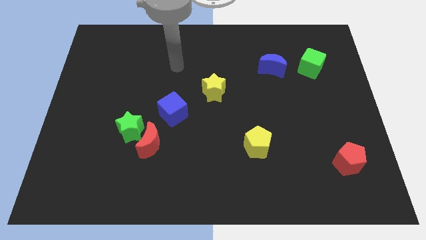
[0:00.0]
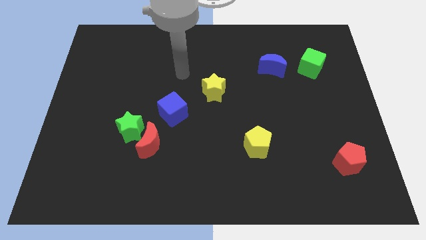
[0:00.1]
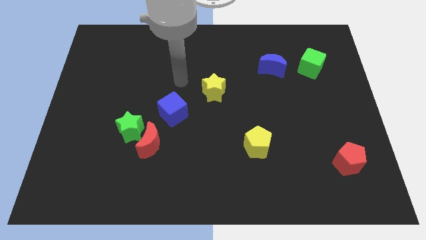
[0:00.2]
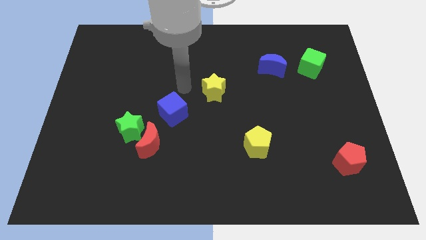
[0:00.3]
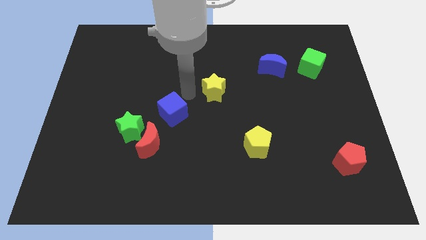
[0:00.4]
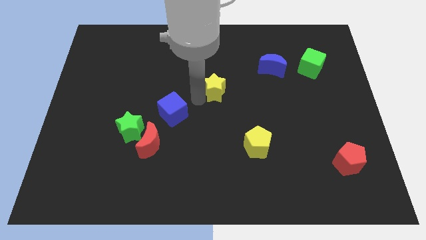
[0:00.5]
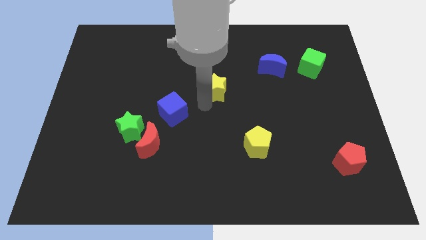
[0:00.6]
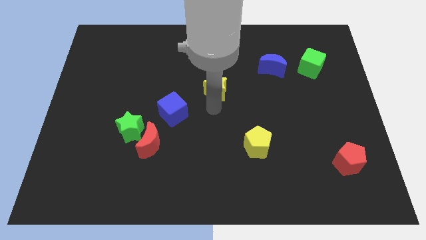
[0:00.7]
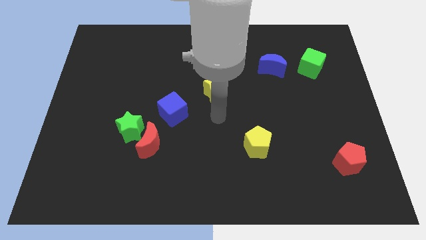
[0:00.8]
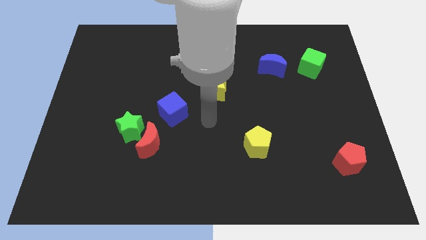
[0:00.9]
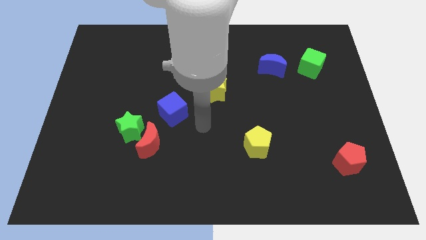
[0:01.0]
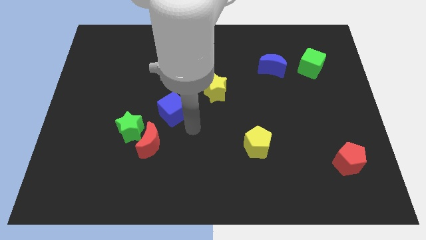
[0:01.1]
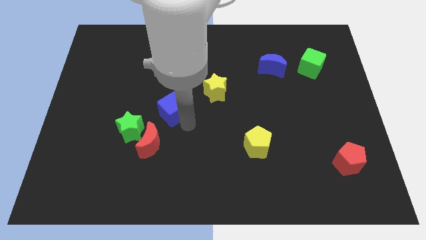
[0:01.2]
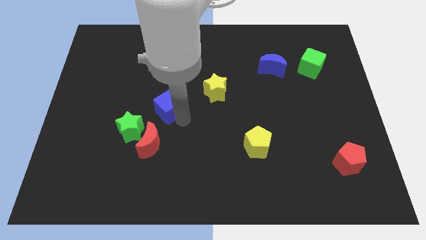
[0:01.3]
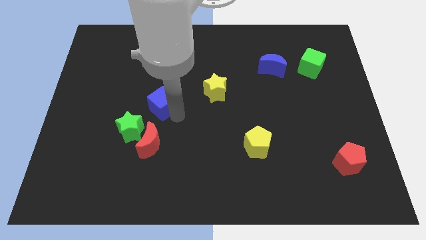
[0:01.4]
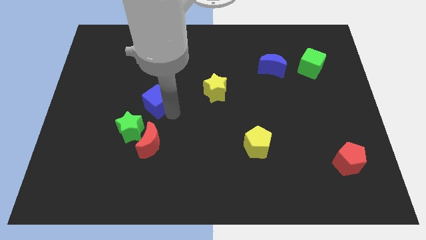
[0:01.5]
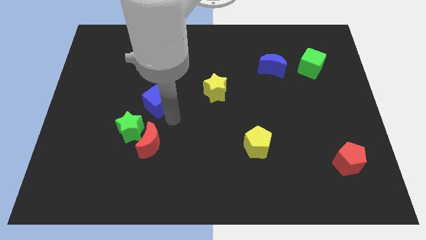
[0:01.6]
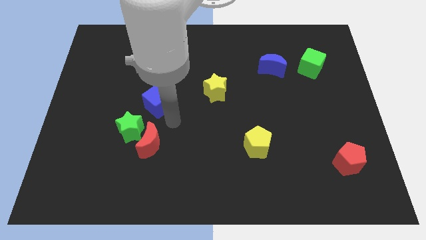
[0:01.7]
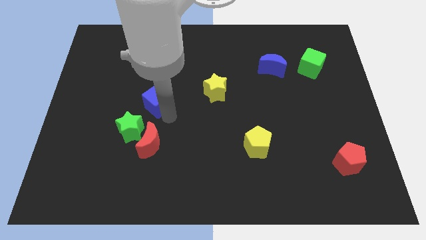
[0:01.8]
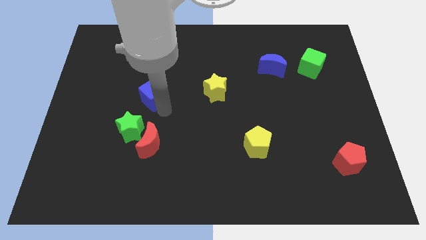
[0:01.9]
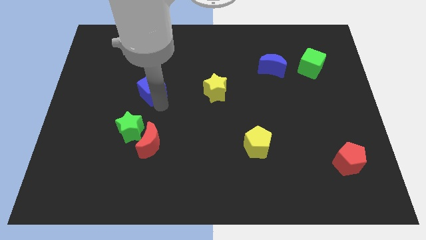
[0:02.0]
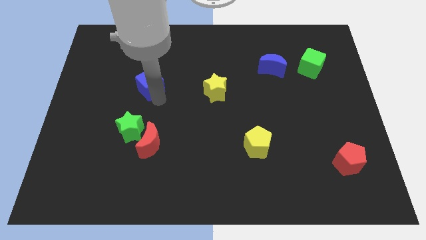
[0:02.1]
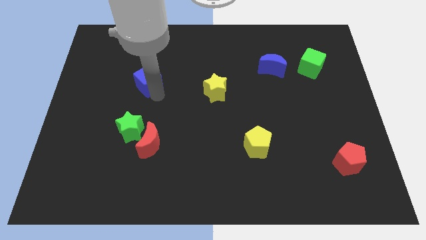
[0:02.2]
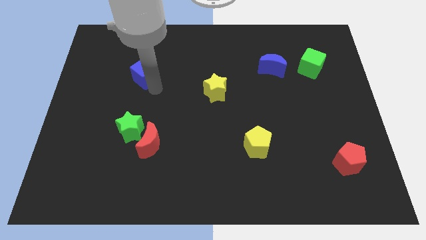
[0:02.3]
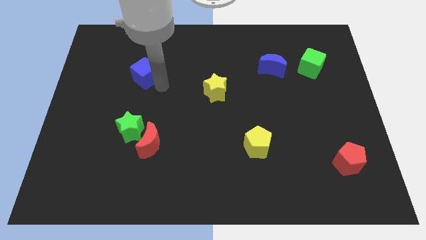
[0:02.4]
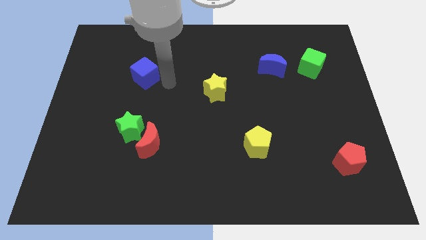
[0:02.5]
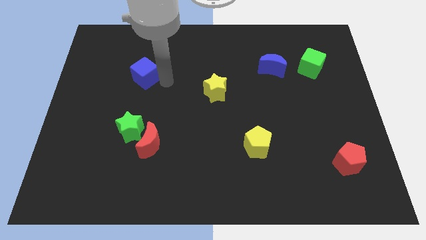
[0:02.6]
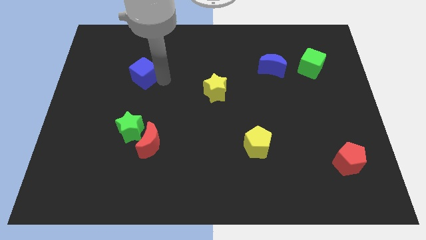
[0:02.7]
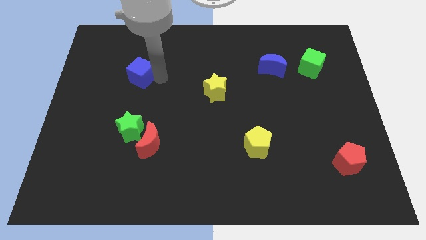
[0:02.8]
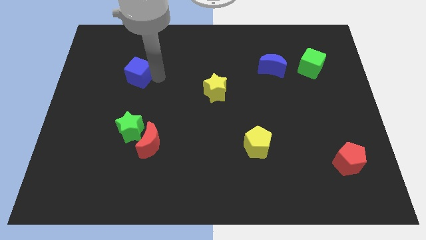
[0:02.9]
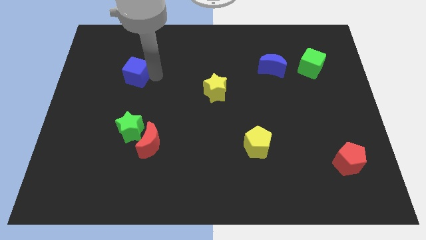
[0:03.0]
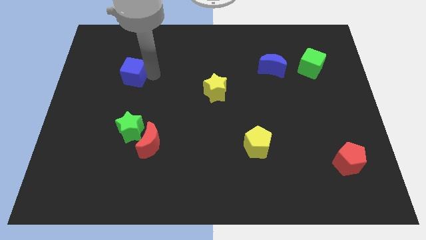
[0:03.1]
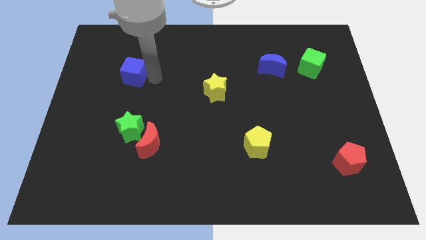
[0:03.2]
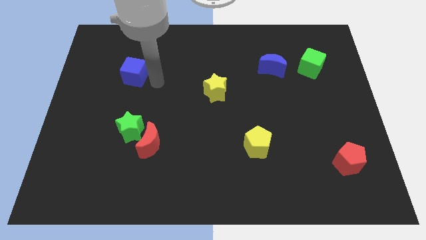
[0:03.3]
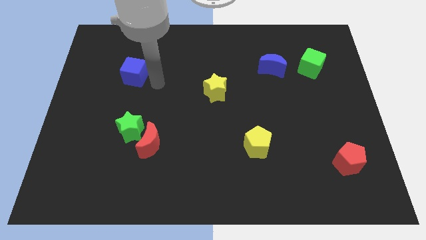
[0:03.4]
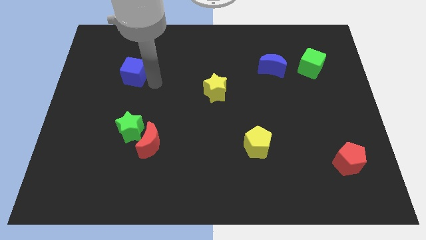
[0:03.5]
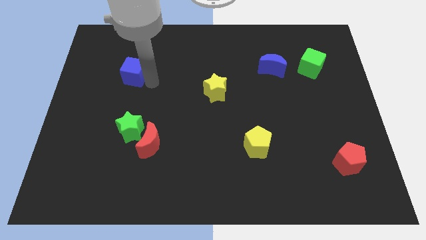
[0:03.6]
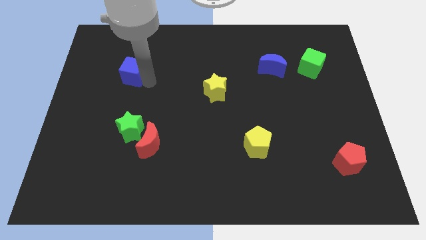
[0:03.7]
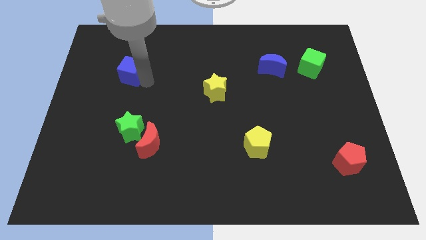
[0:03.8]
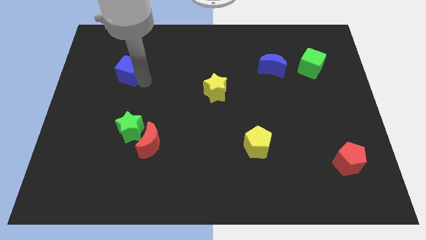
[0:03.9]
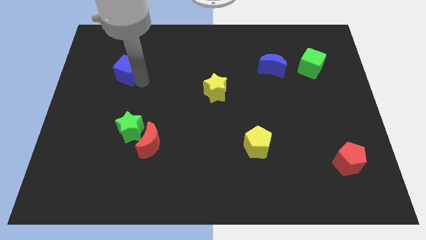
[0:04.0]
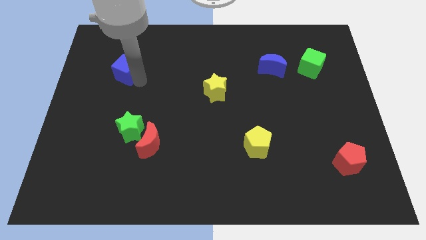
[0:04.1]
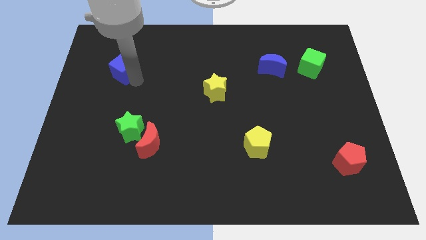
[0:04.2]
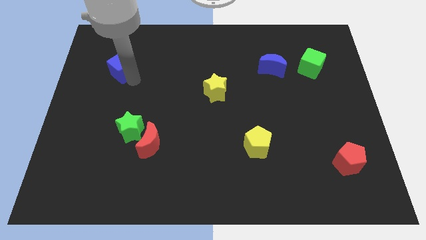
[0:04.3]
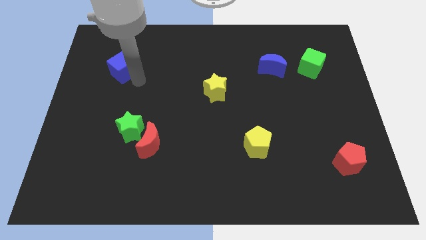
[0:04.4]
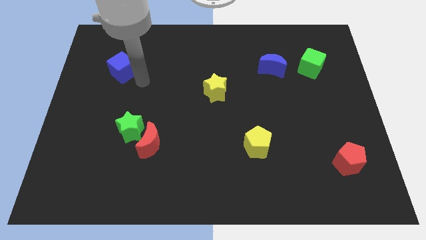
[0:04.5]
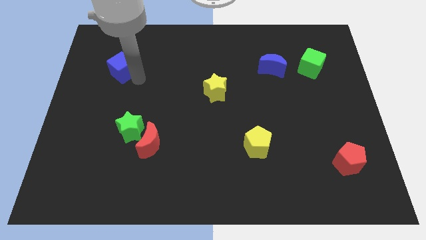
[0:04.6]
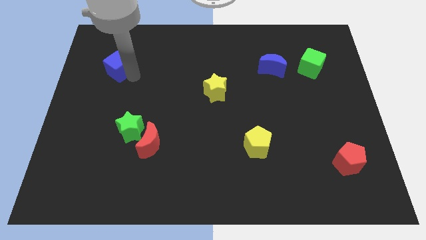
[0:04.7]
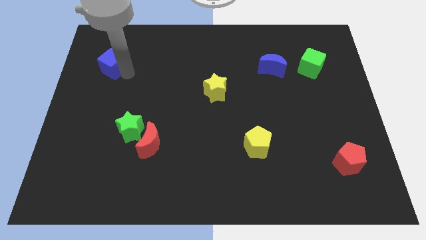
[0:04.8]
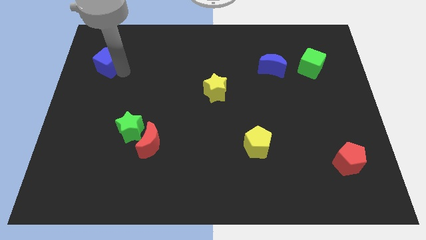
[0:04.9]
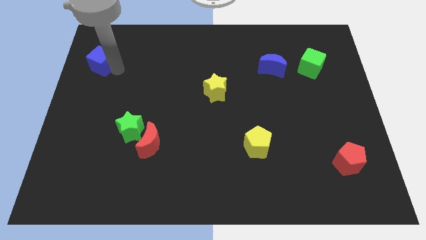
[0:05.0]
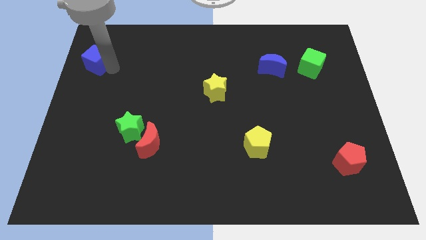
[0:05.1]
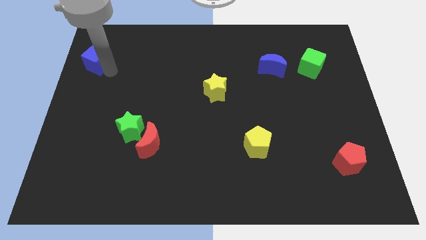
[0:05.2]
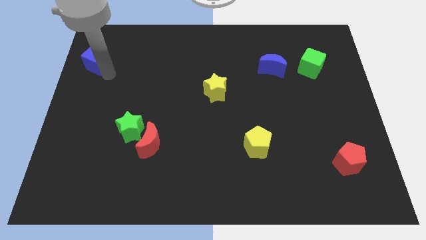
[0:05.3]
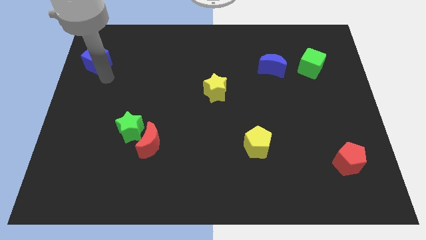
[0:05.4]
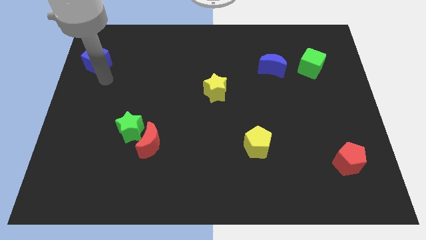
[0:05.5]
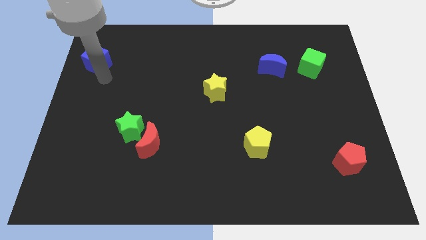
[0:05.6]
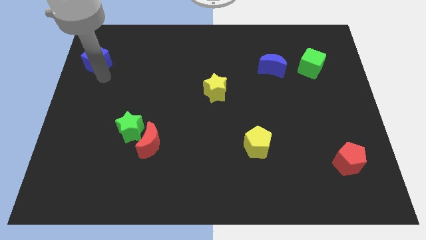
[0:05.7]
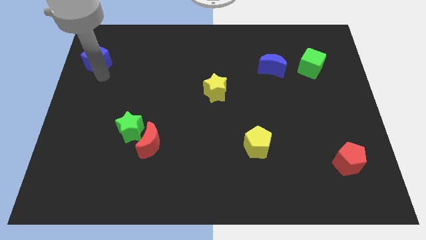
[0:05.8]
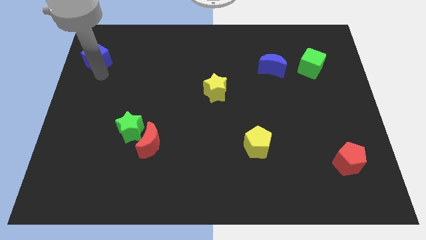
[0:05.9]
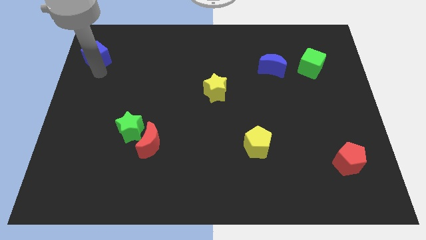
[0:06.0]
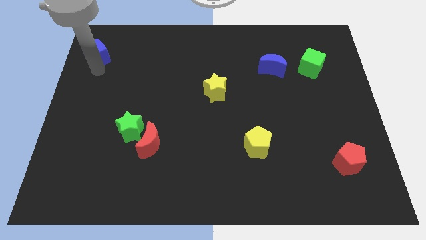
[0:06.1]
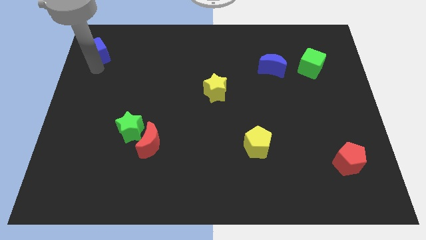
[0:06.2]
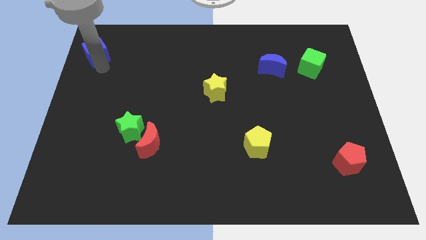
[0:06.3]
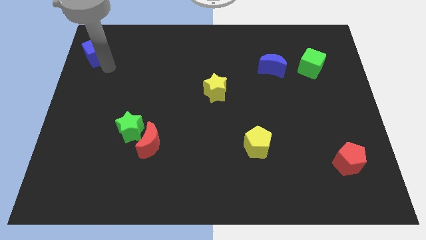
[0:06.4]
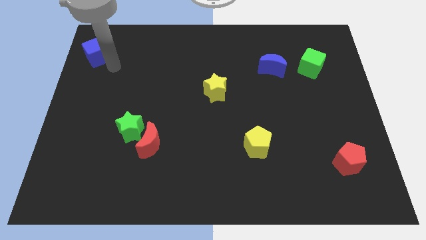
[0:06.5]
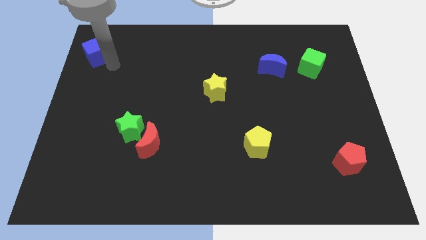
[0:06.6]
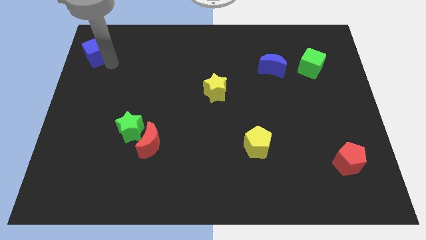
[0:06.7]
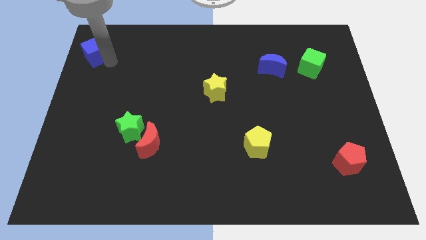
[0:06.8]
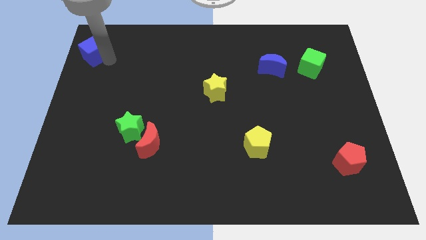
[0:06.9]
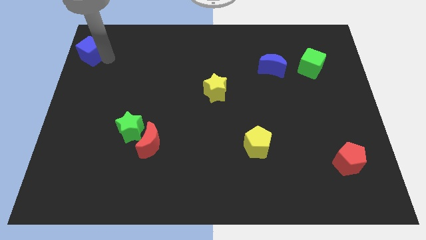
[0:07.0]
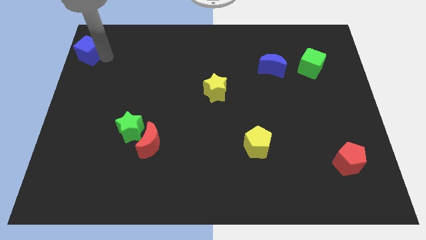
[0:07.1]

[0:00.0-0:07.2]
slide the blue cube to the top left
